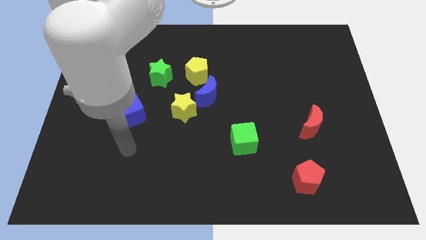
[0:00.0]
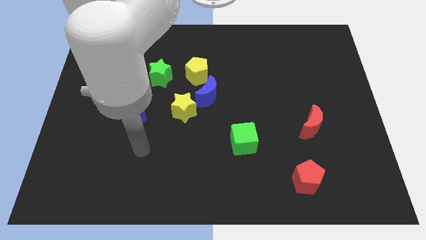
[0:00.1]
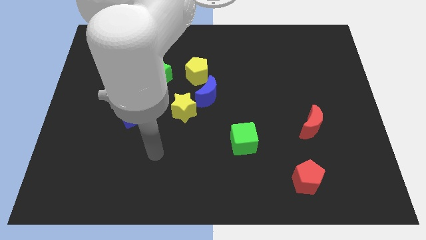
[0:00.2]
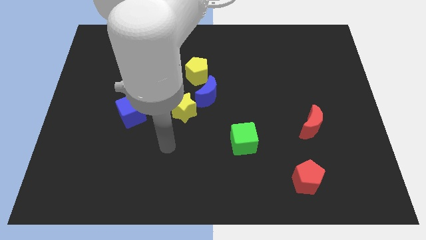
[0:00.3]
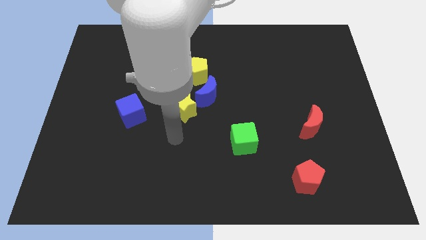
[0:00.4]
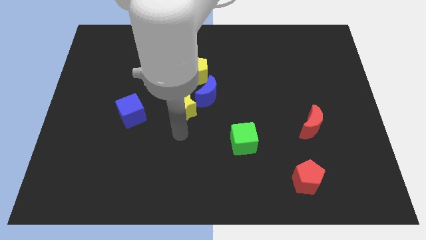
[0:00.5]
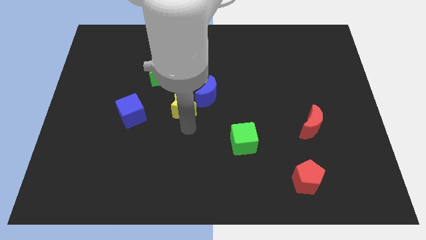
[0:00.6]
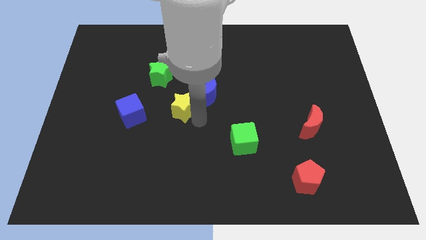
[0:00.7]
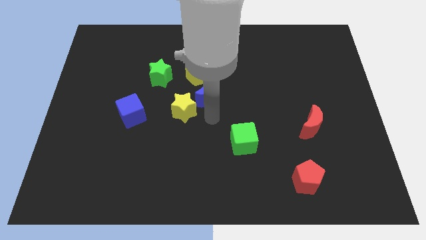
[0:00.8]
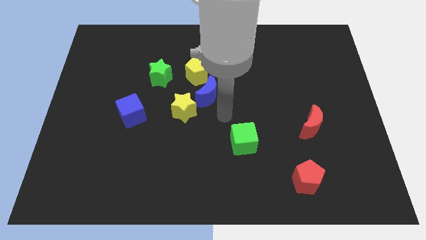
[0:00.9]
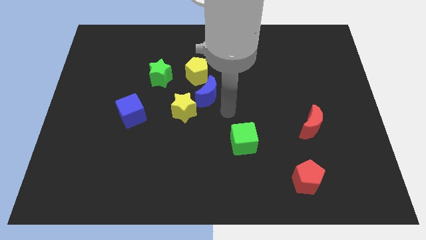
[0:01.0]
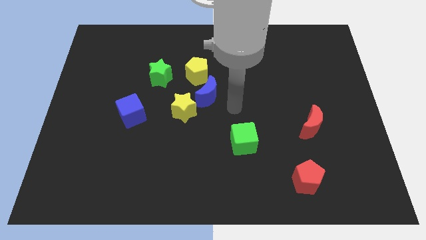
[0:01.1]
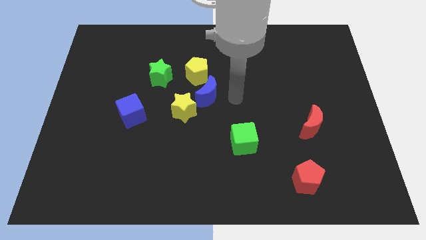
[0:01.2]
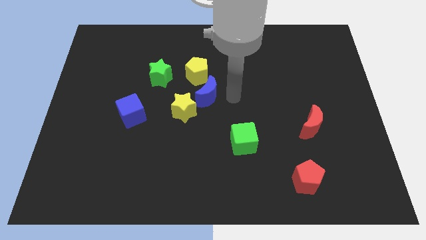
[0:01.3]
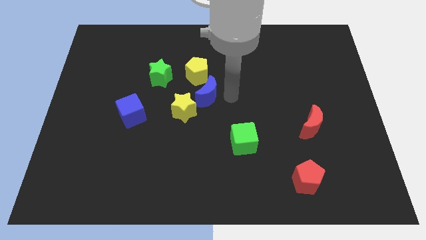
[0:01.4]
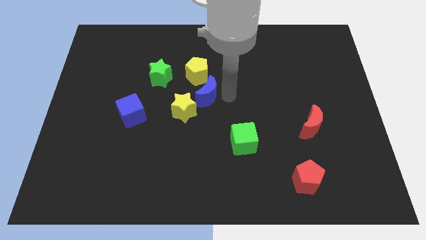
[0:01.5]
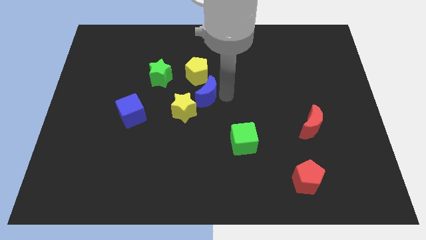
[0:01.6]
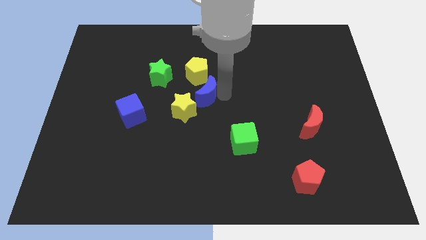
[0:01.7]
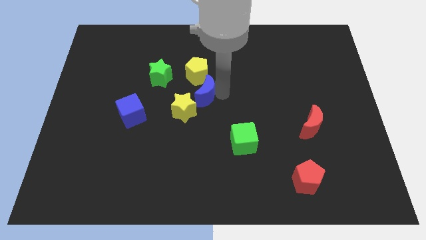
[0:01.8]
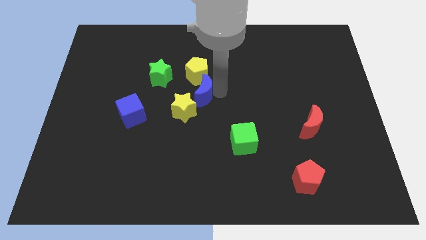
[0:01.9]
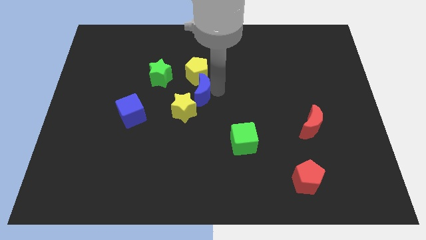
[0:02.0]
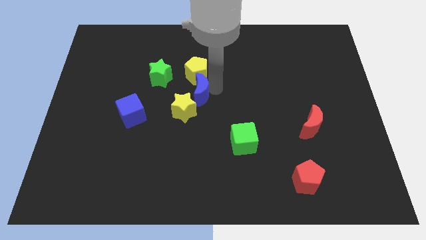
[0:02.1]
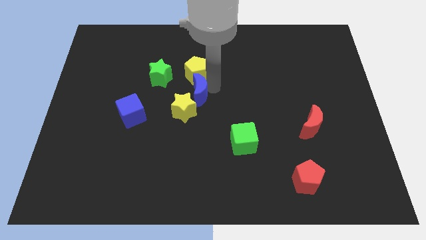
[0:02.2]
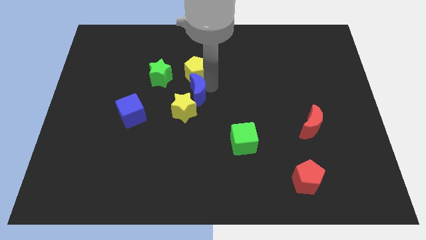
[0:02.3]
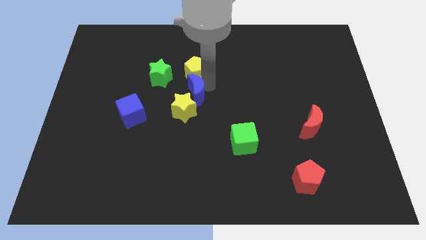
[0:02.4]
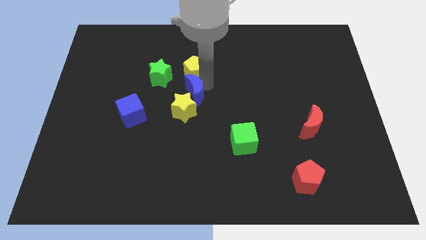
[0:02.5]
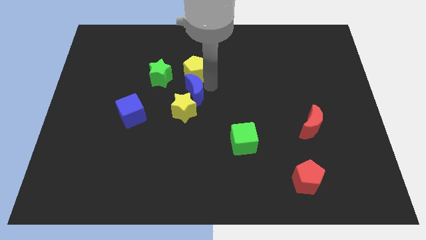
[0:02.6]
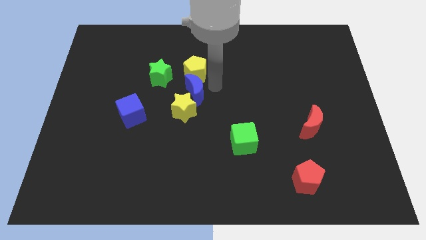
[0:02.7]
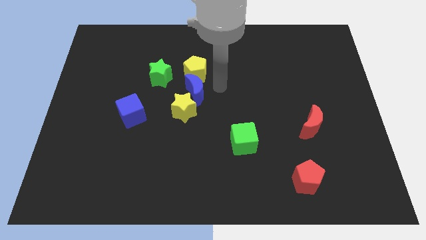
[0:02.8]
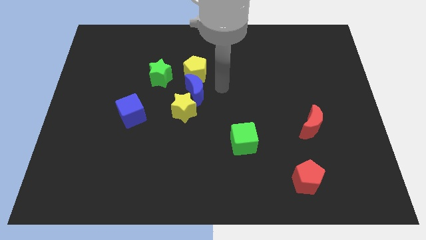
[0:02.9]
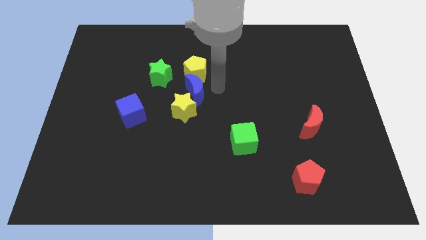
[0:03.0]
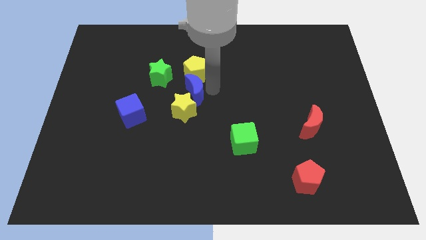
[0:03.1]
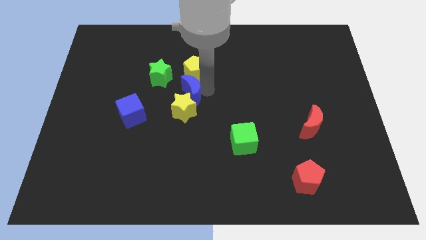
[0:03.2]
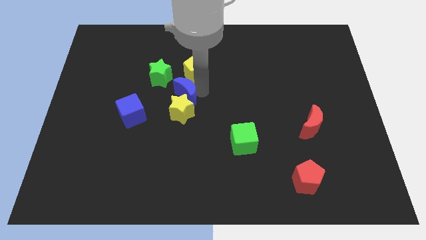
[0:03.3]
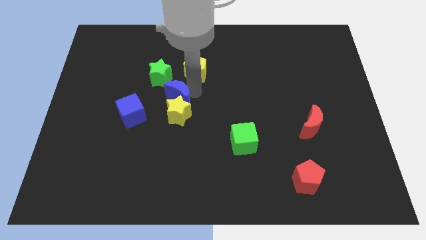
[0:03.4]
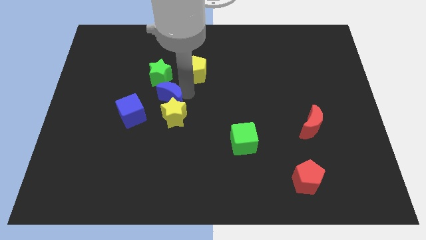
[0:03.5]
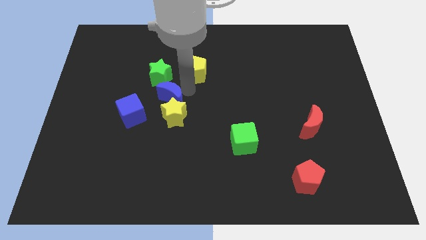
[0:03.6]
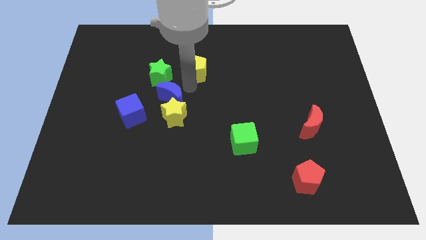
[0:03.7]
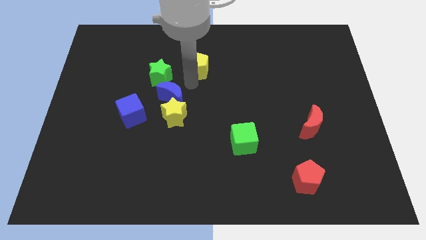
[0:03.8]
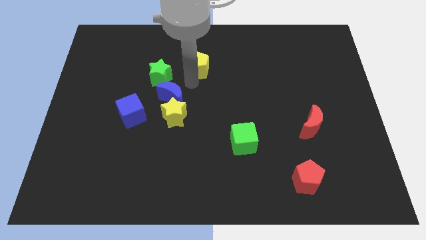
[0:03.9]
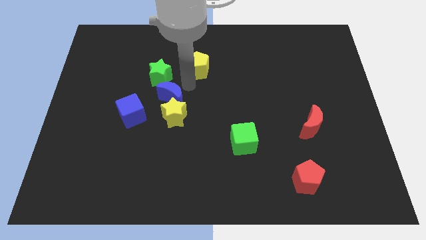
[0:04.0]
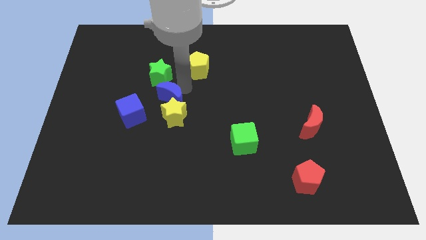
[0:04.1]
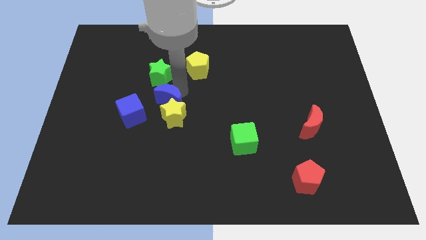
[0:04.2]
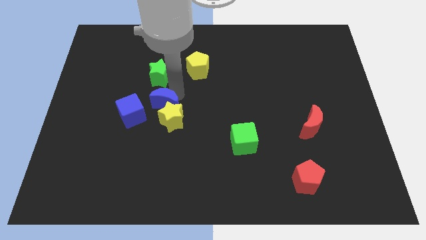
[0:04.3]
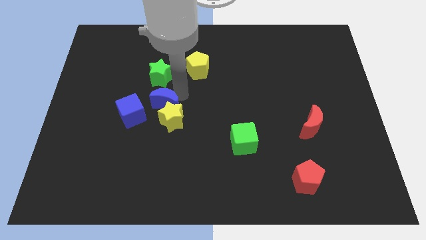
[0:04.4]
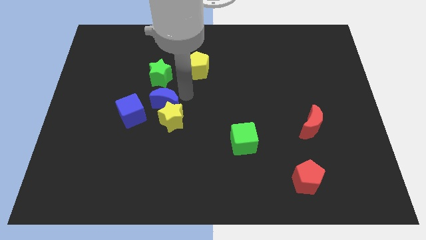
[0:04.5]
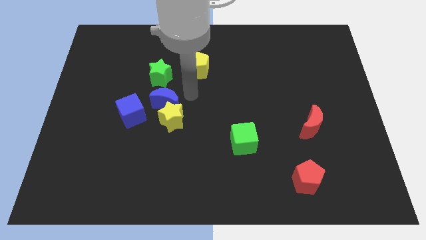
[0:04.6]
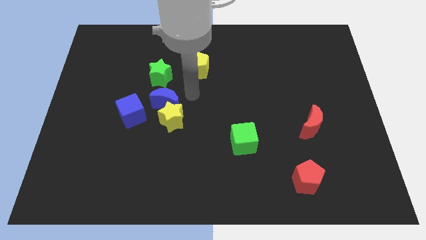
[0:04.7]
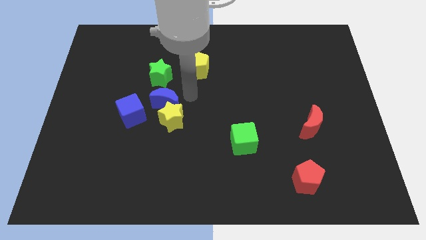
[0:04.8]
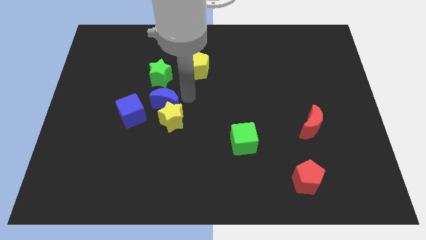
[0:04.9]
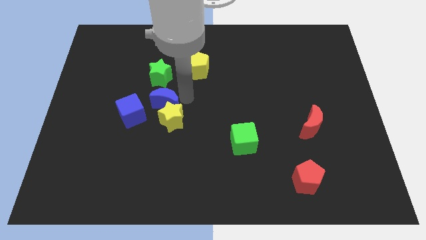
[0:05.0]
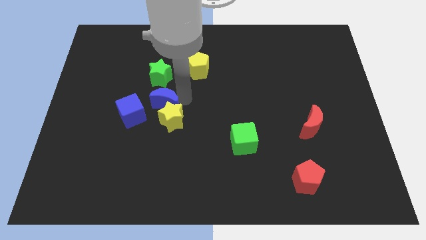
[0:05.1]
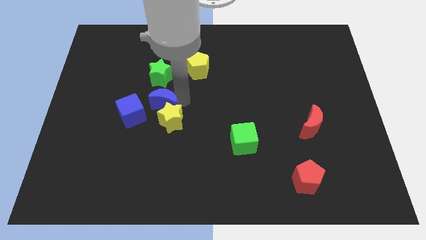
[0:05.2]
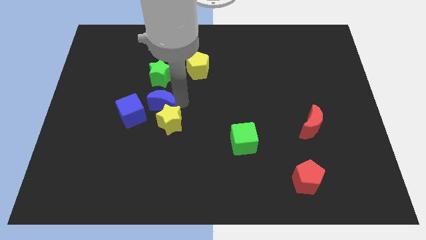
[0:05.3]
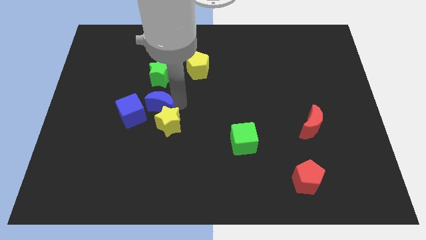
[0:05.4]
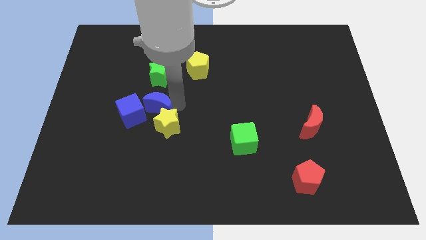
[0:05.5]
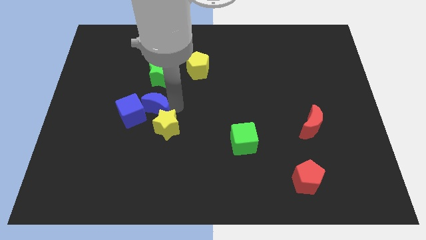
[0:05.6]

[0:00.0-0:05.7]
push the blue moon towards the blue cube

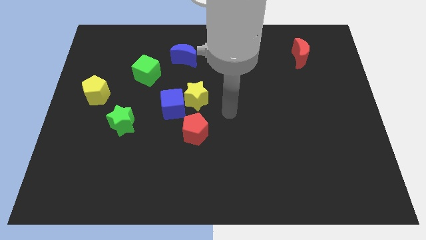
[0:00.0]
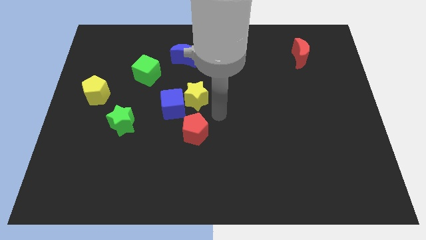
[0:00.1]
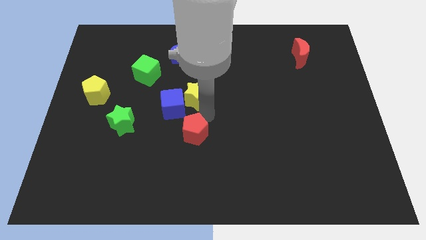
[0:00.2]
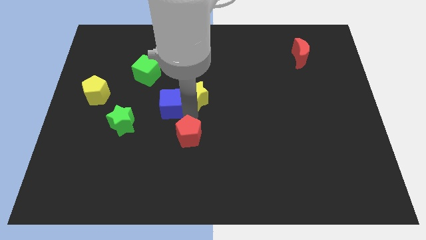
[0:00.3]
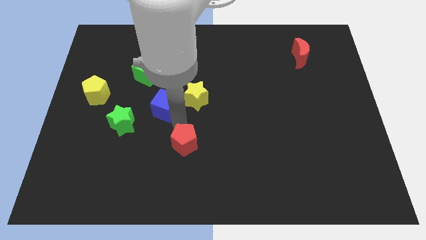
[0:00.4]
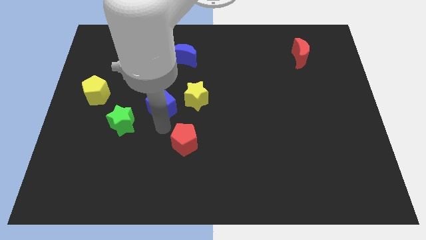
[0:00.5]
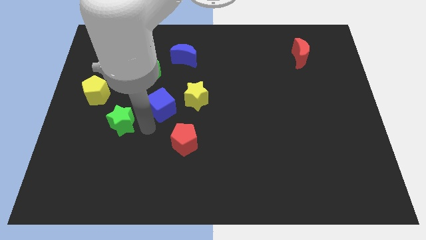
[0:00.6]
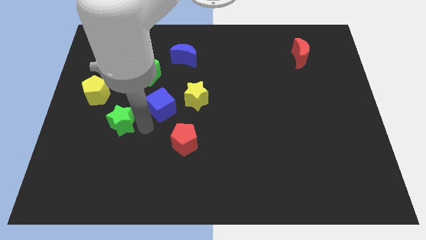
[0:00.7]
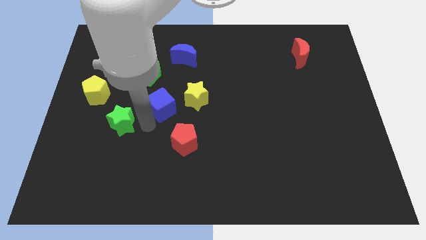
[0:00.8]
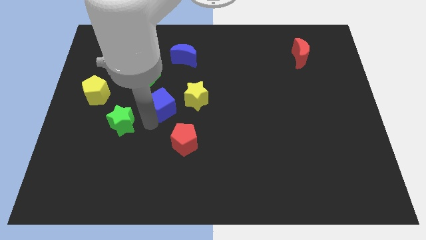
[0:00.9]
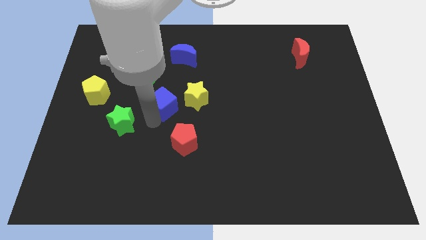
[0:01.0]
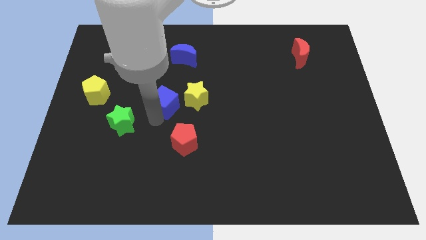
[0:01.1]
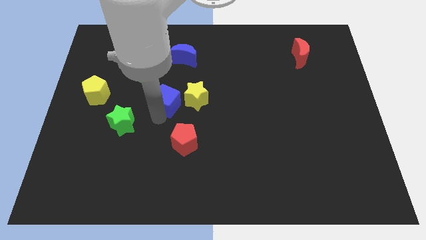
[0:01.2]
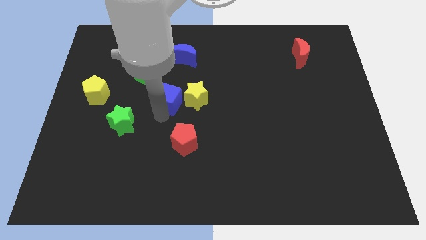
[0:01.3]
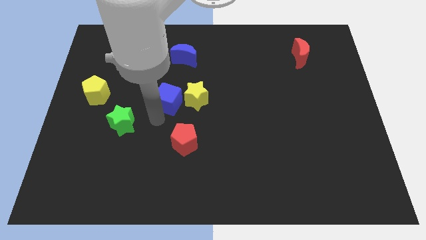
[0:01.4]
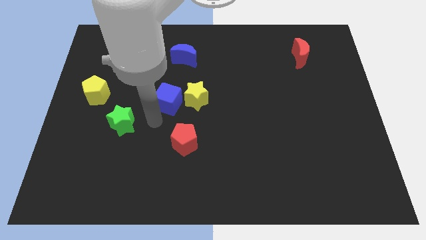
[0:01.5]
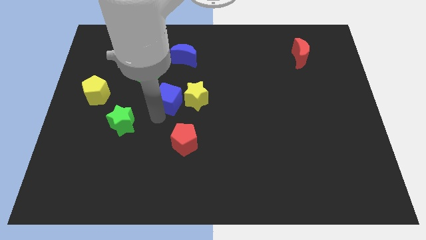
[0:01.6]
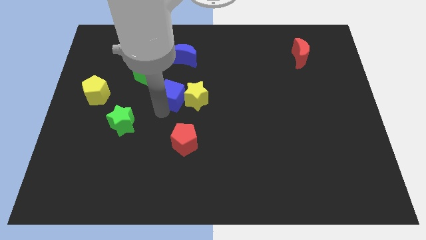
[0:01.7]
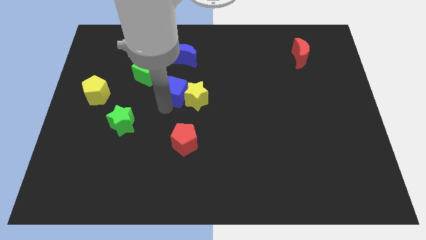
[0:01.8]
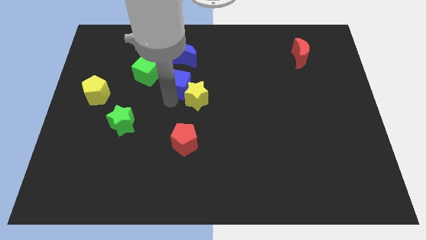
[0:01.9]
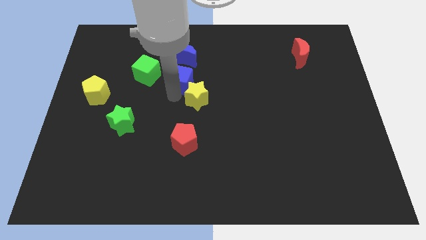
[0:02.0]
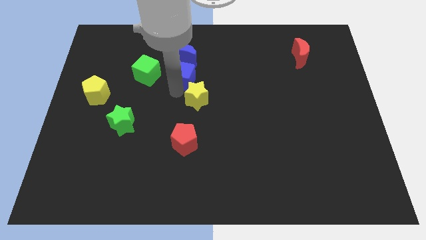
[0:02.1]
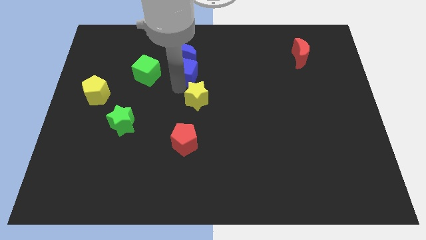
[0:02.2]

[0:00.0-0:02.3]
move the blue cube next to the blue moon

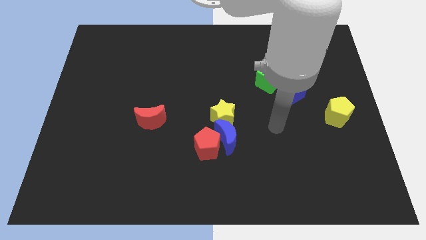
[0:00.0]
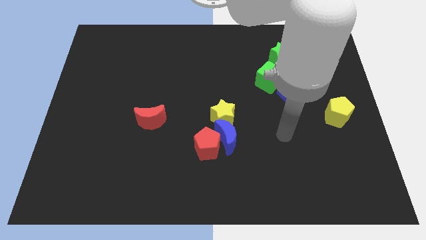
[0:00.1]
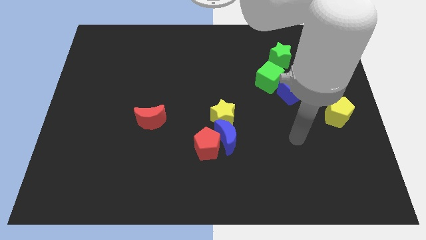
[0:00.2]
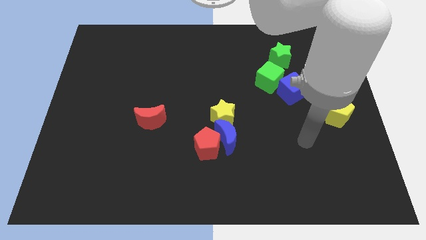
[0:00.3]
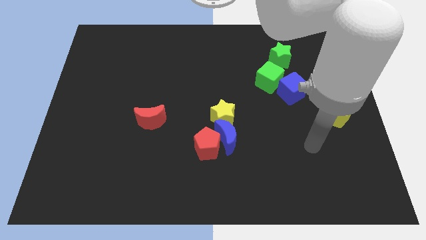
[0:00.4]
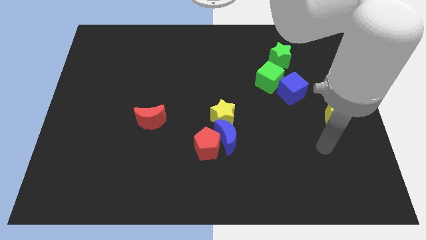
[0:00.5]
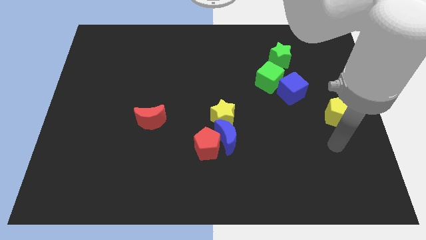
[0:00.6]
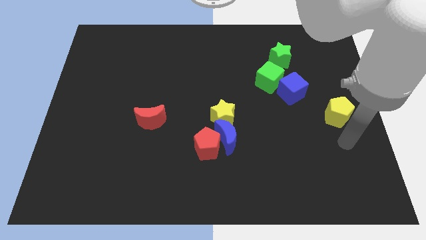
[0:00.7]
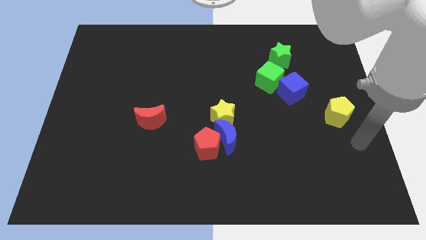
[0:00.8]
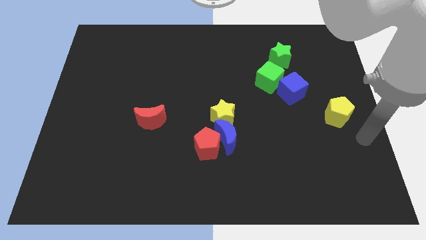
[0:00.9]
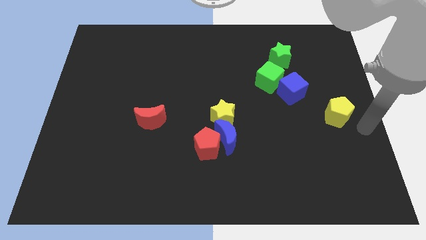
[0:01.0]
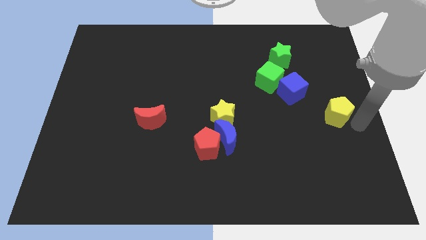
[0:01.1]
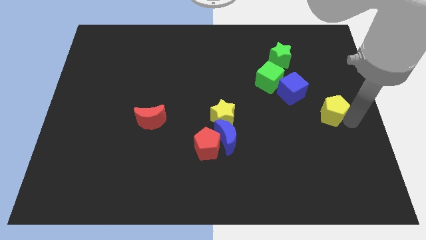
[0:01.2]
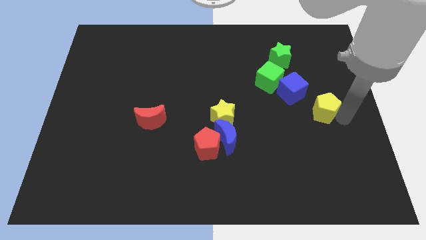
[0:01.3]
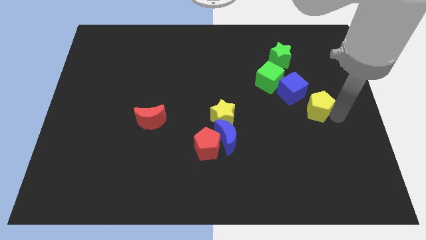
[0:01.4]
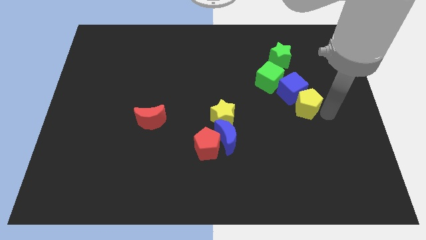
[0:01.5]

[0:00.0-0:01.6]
slide the yellow pentagon towards the blue cube
